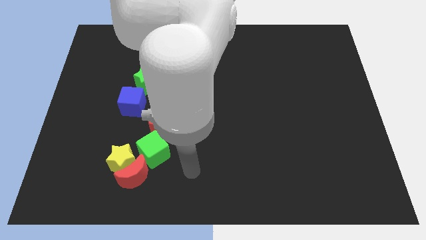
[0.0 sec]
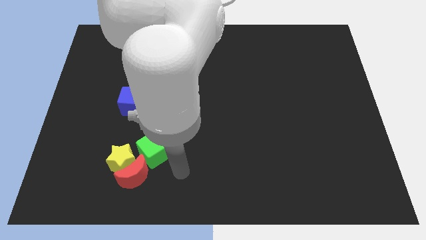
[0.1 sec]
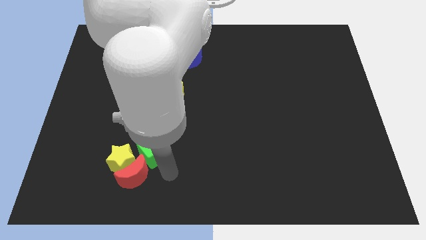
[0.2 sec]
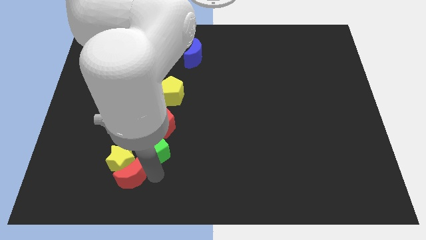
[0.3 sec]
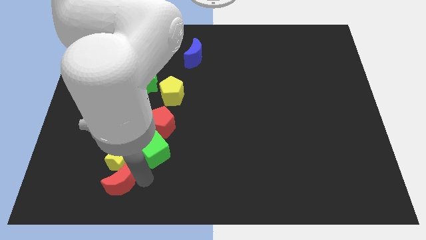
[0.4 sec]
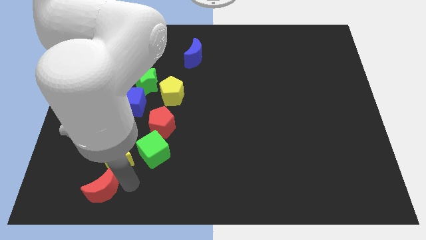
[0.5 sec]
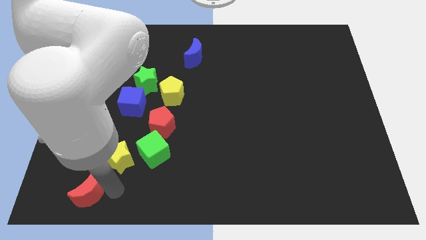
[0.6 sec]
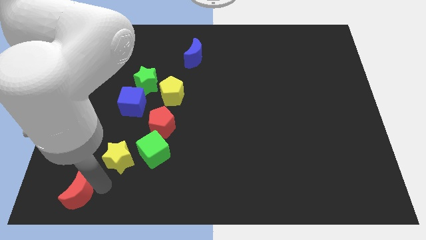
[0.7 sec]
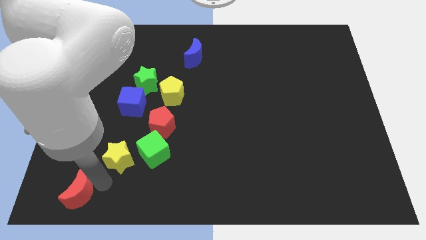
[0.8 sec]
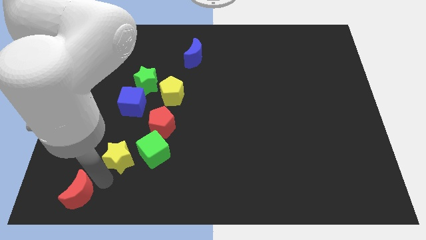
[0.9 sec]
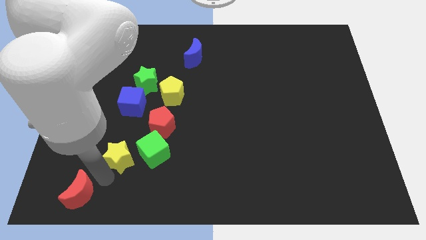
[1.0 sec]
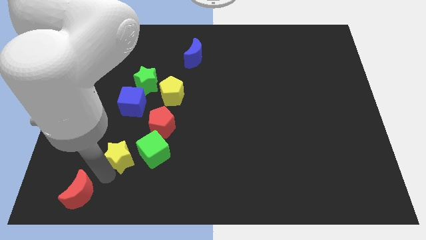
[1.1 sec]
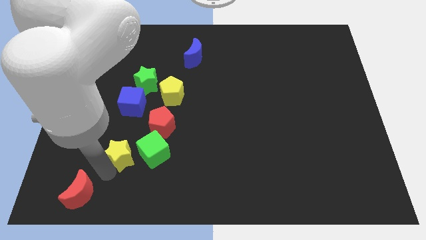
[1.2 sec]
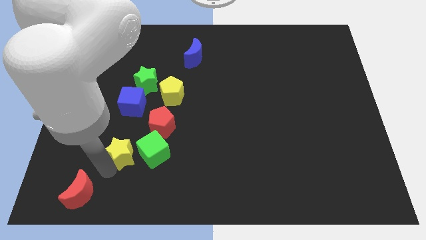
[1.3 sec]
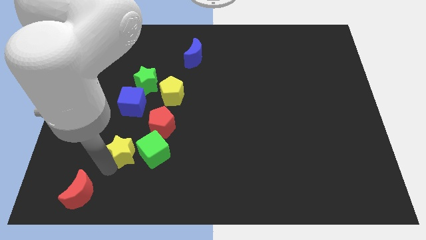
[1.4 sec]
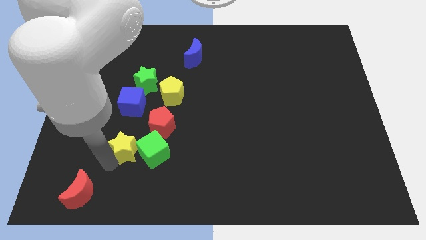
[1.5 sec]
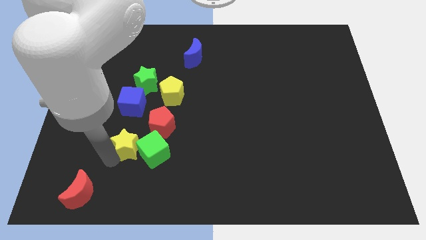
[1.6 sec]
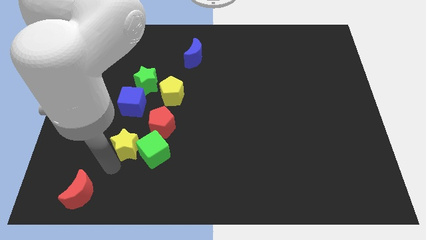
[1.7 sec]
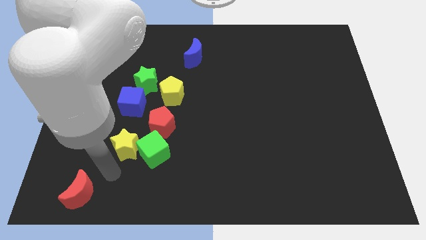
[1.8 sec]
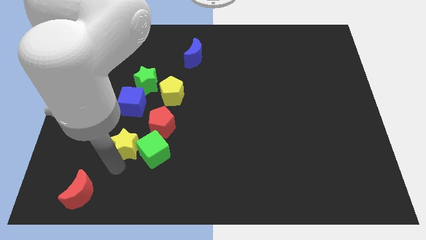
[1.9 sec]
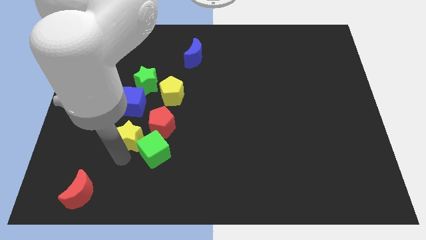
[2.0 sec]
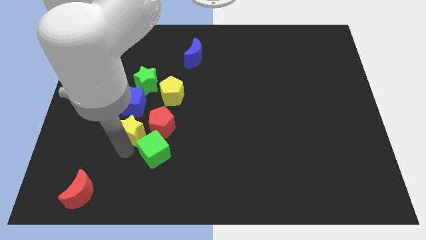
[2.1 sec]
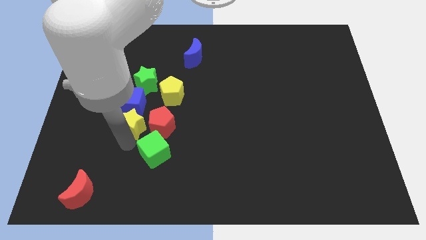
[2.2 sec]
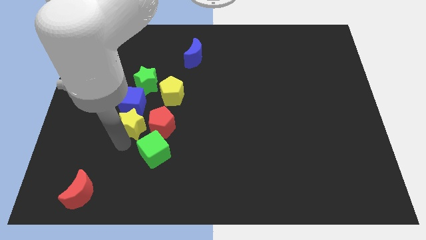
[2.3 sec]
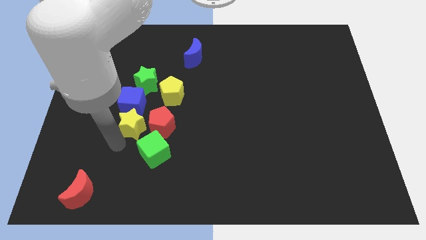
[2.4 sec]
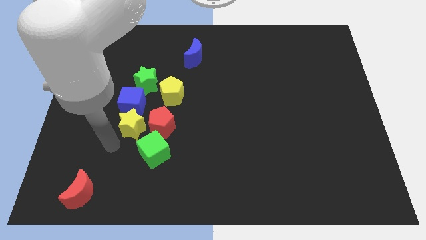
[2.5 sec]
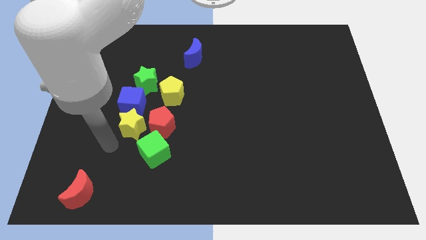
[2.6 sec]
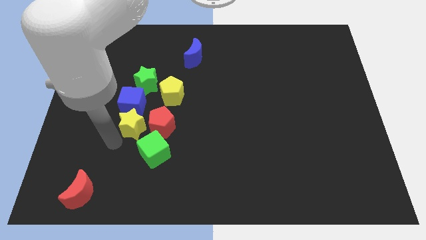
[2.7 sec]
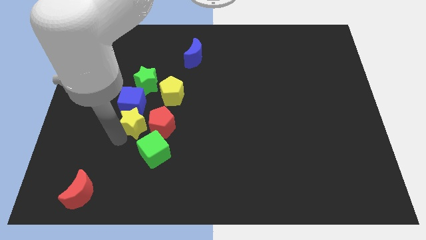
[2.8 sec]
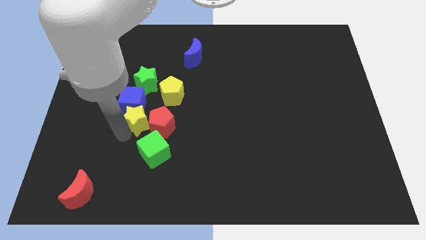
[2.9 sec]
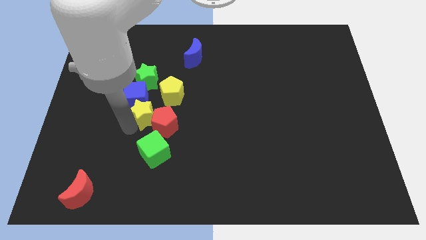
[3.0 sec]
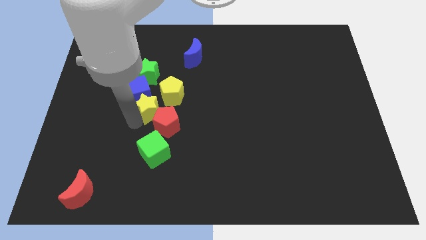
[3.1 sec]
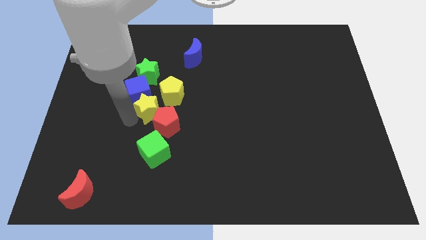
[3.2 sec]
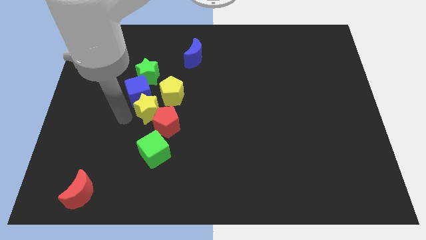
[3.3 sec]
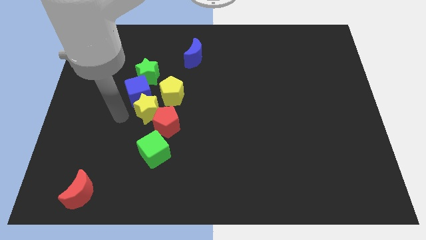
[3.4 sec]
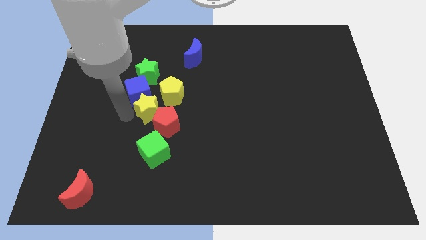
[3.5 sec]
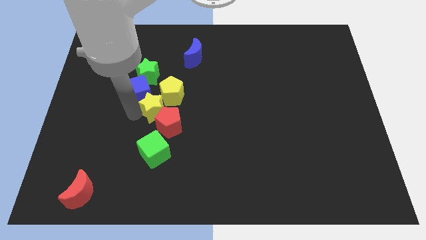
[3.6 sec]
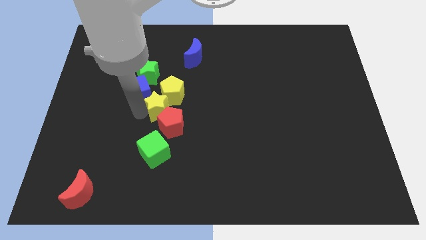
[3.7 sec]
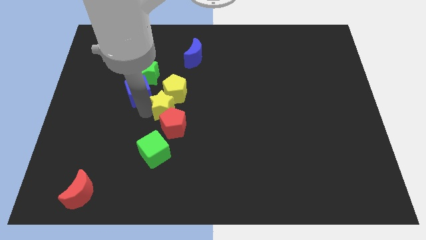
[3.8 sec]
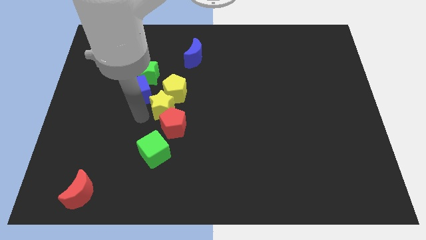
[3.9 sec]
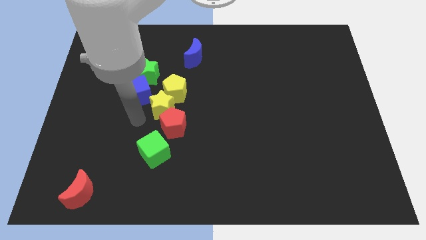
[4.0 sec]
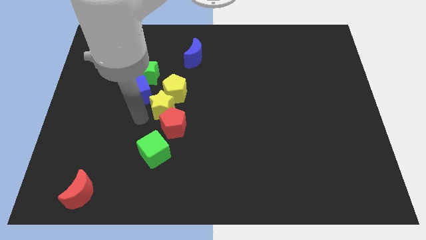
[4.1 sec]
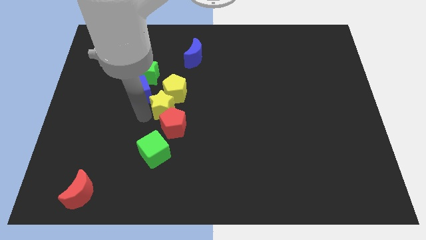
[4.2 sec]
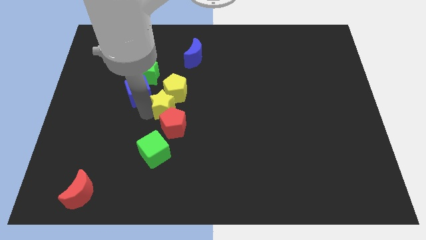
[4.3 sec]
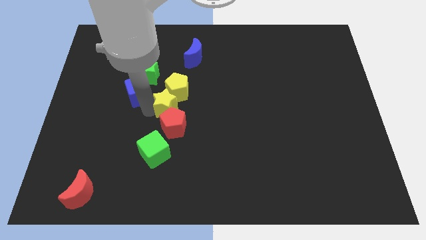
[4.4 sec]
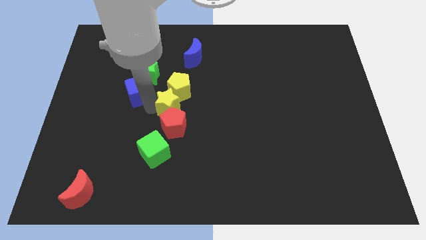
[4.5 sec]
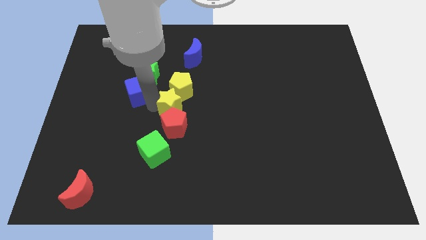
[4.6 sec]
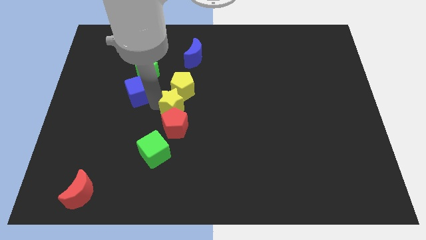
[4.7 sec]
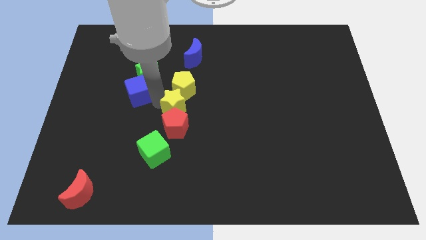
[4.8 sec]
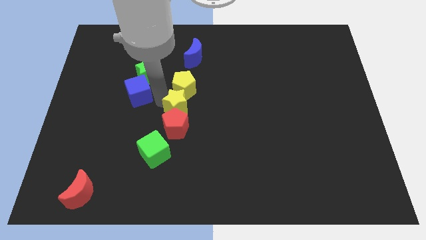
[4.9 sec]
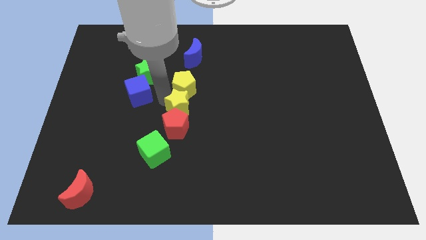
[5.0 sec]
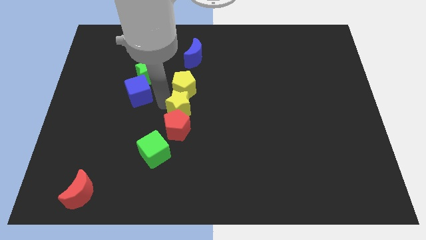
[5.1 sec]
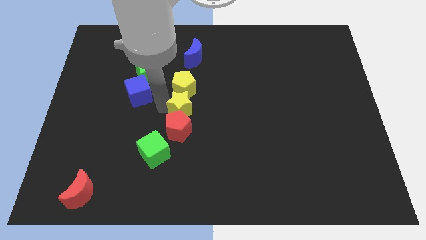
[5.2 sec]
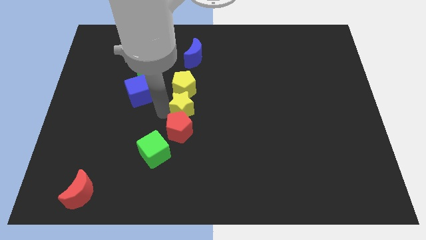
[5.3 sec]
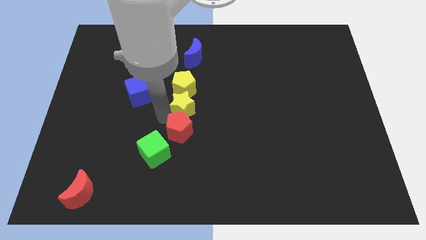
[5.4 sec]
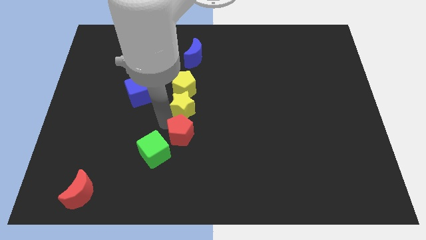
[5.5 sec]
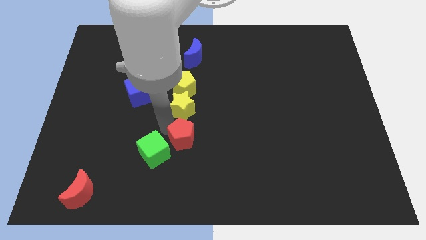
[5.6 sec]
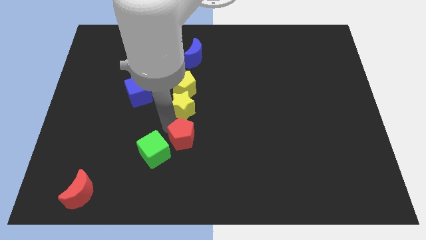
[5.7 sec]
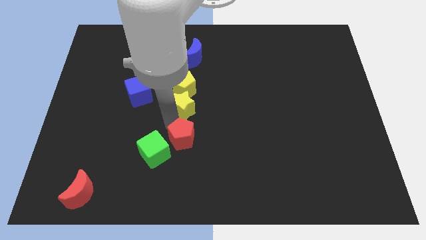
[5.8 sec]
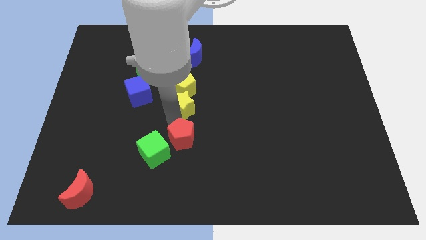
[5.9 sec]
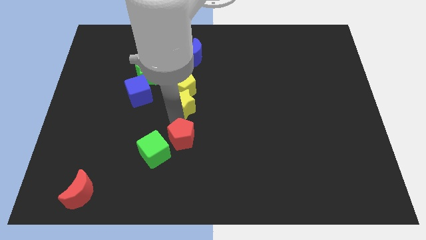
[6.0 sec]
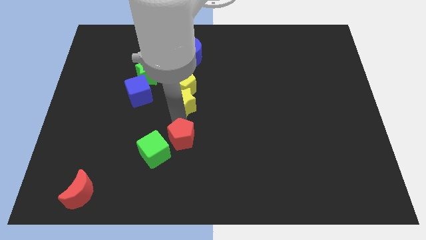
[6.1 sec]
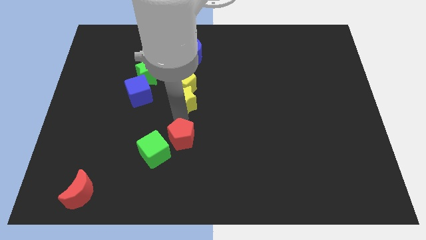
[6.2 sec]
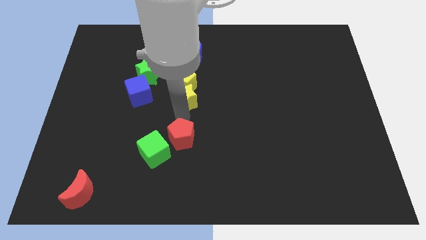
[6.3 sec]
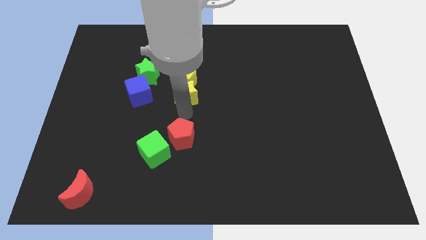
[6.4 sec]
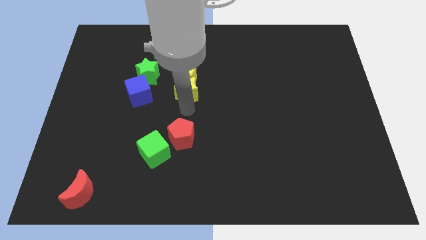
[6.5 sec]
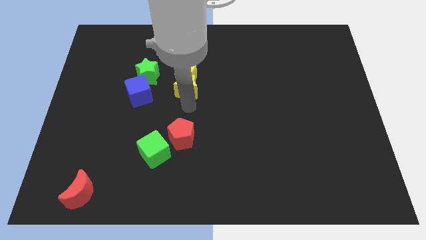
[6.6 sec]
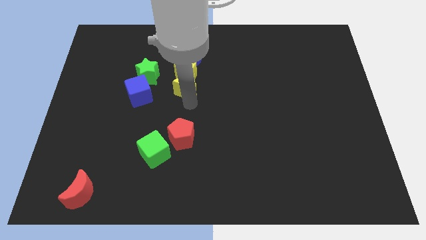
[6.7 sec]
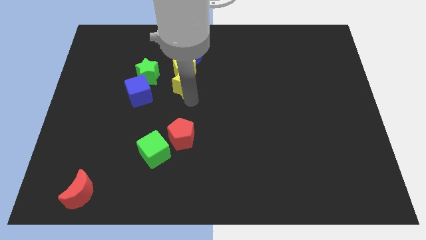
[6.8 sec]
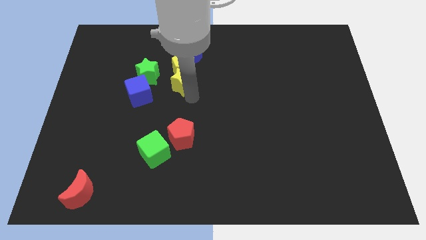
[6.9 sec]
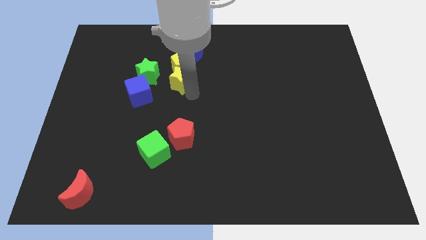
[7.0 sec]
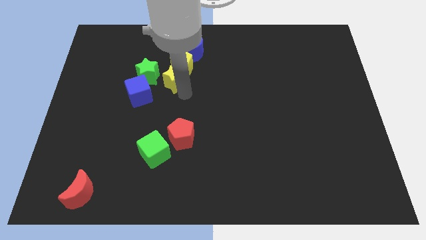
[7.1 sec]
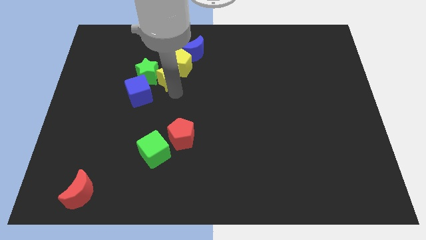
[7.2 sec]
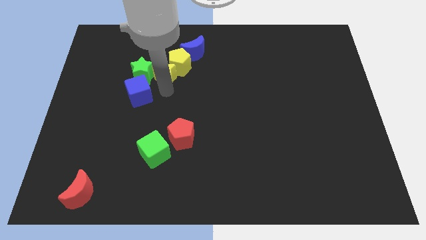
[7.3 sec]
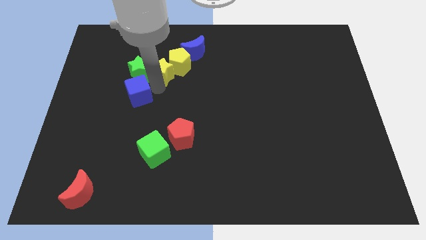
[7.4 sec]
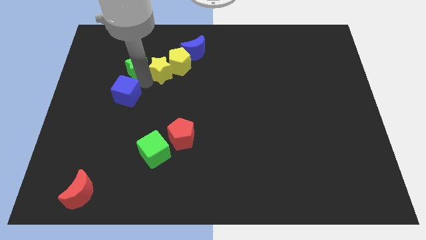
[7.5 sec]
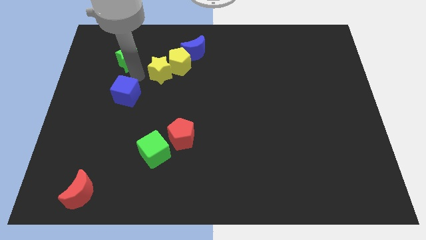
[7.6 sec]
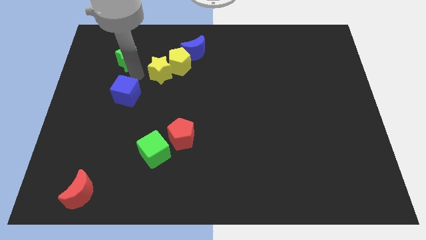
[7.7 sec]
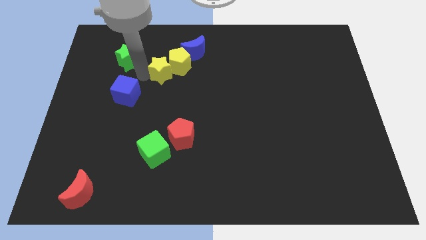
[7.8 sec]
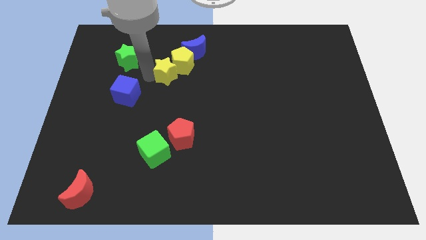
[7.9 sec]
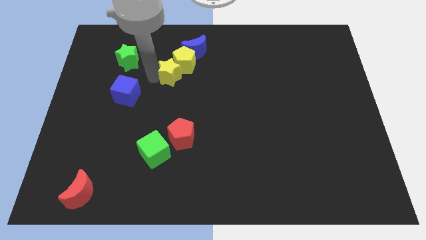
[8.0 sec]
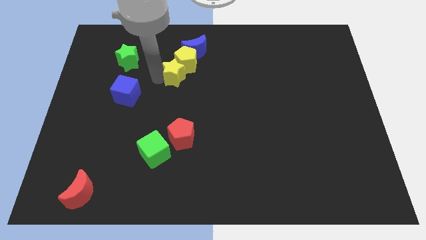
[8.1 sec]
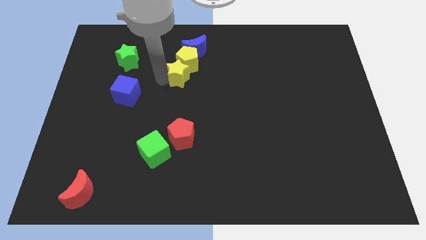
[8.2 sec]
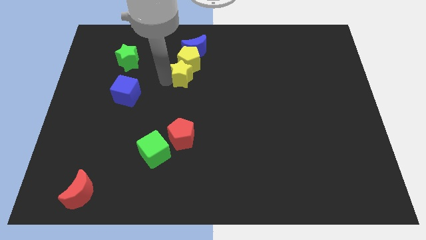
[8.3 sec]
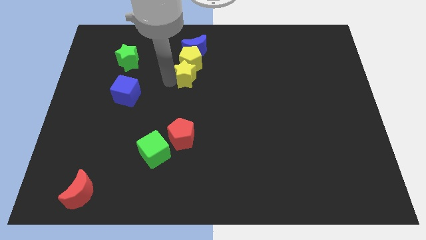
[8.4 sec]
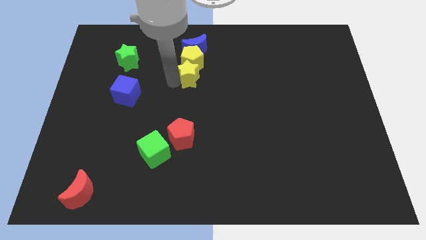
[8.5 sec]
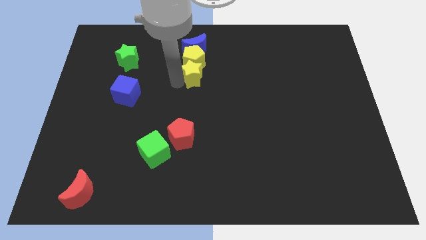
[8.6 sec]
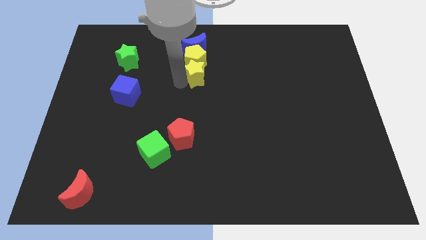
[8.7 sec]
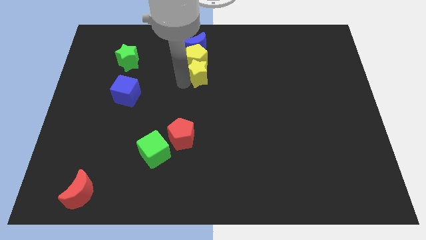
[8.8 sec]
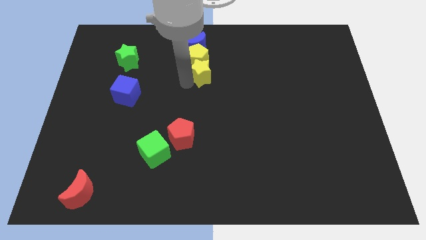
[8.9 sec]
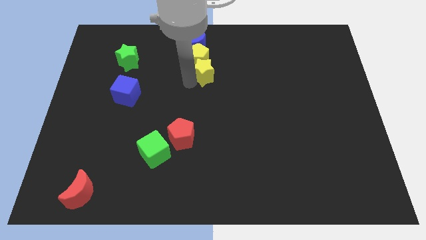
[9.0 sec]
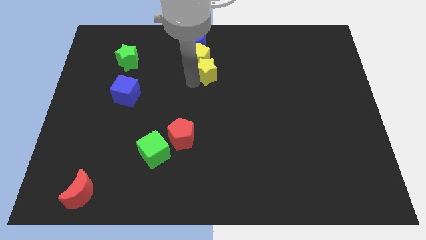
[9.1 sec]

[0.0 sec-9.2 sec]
slide the yellow star diagonally down and to the right of the blue moon
